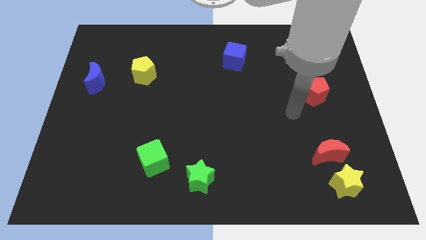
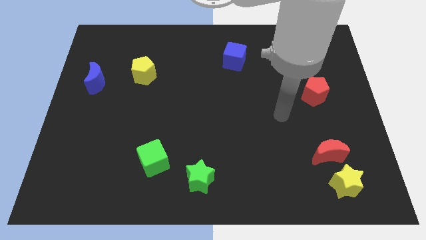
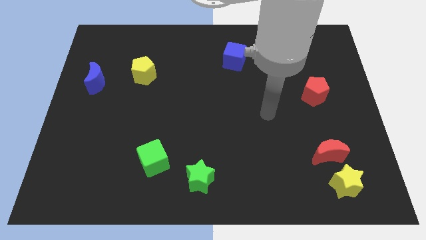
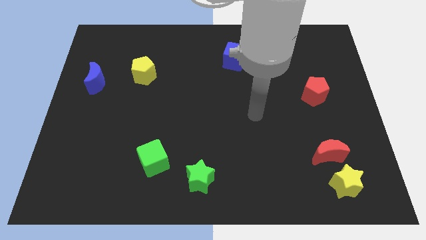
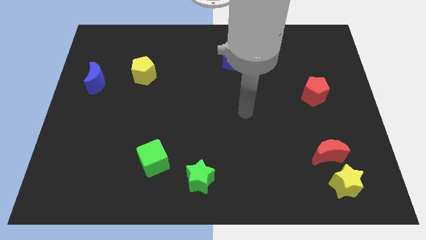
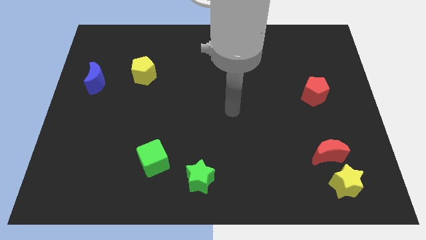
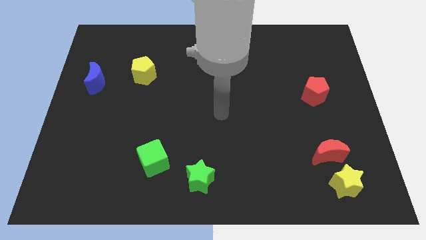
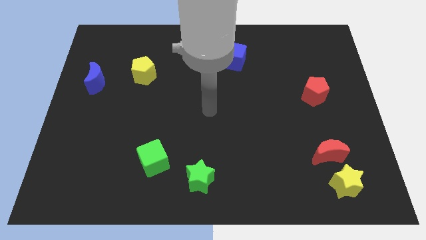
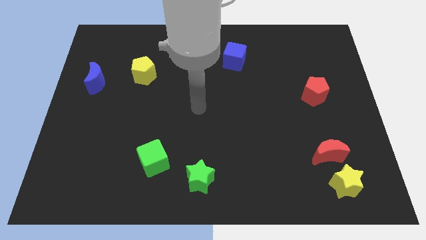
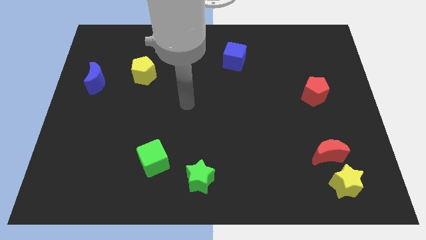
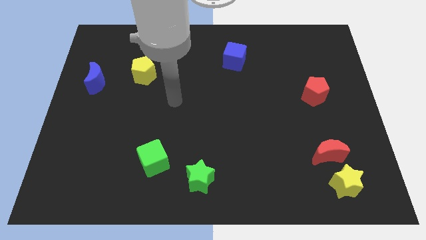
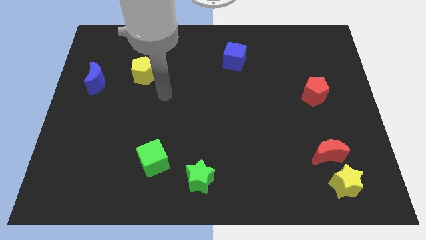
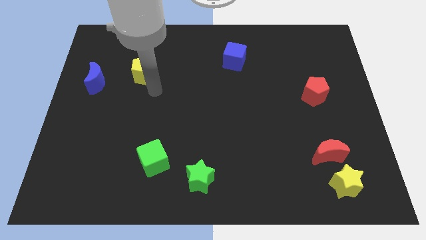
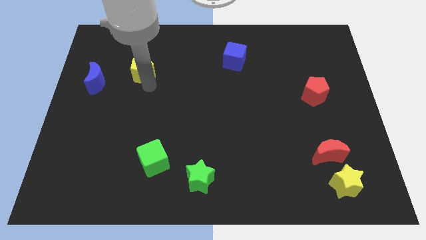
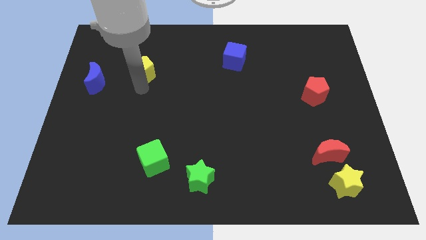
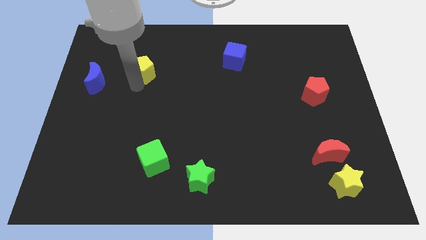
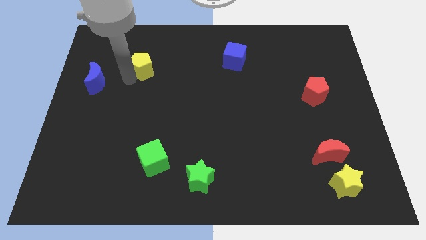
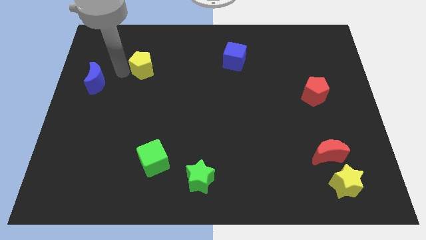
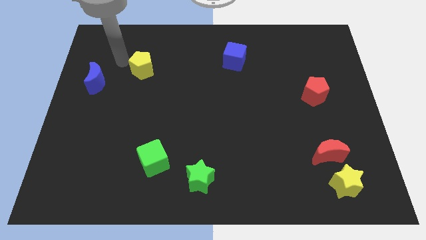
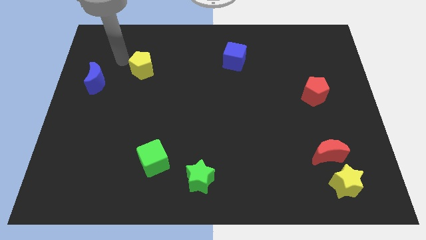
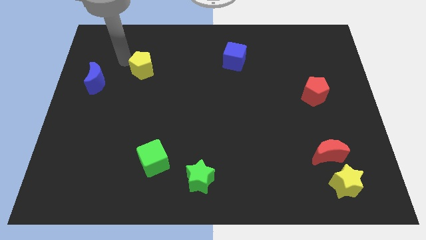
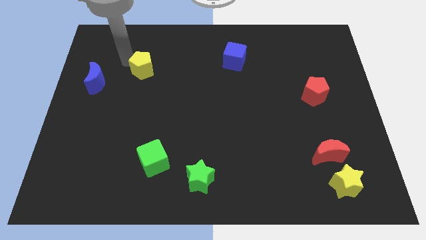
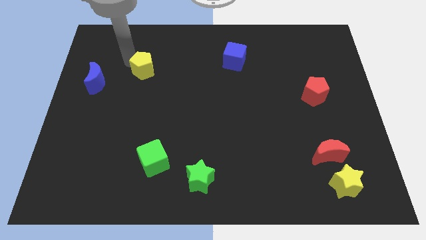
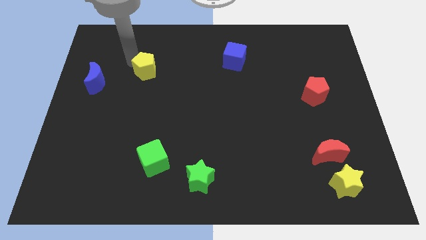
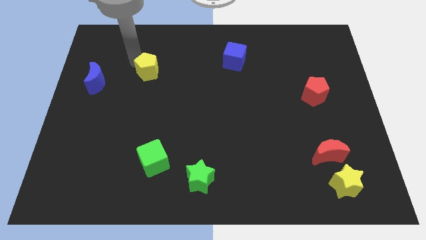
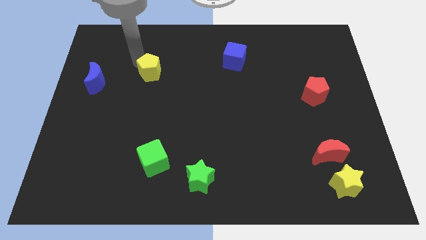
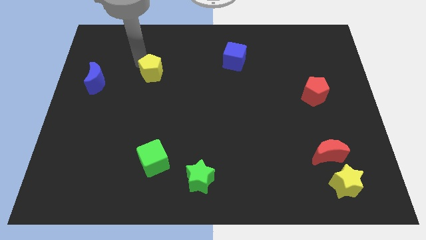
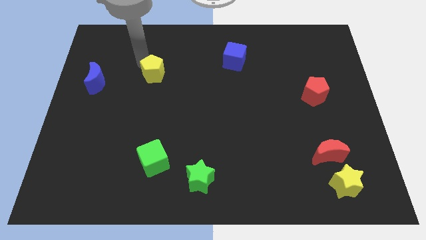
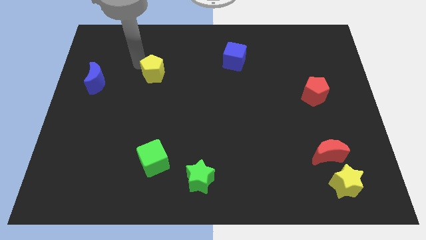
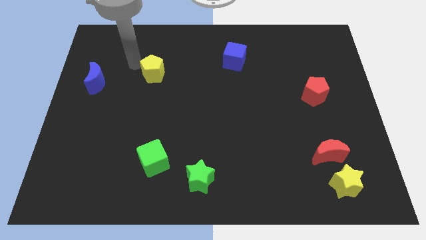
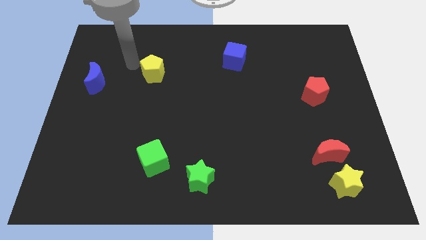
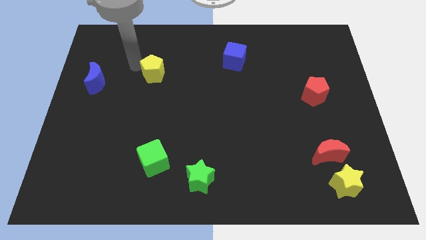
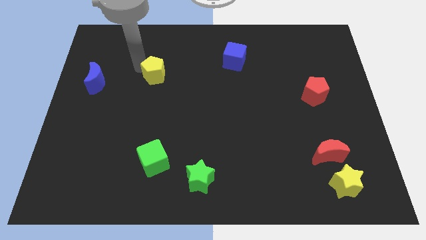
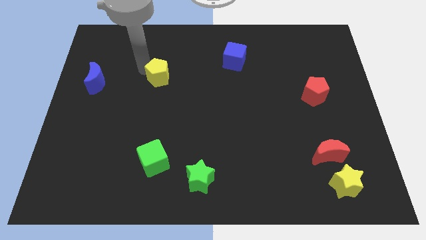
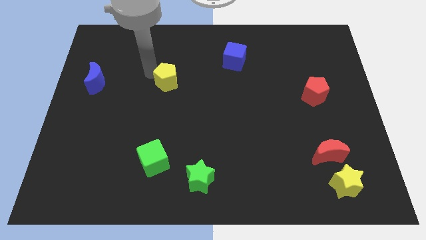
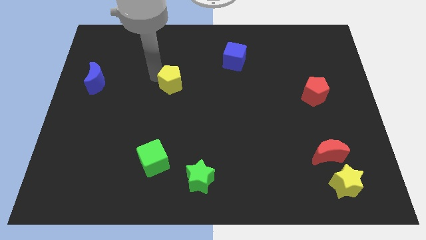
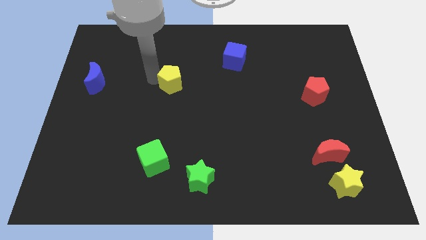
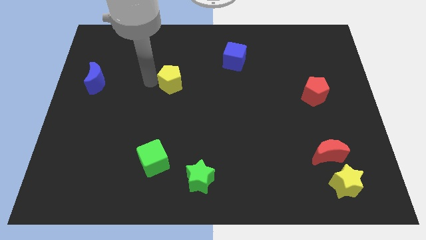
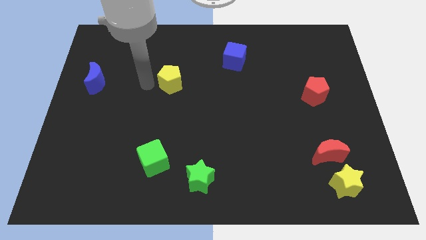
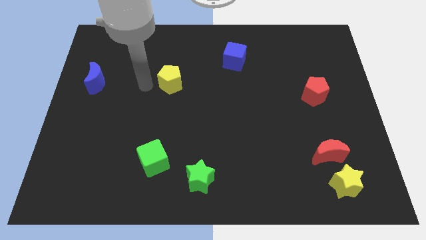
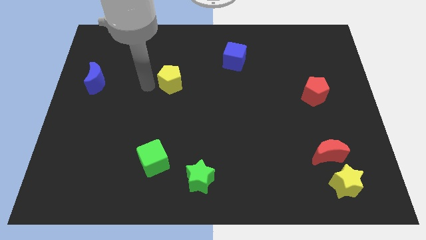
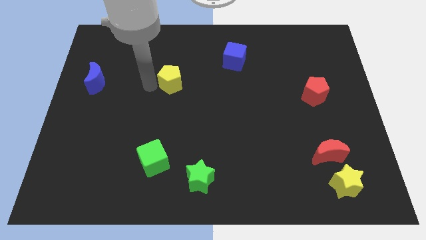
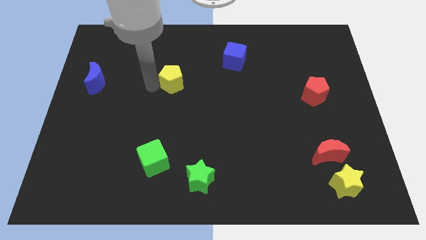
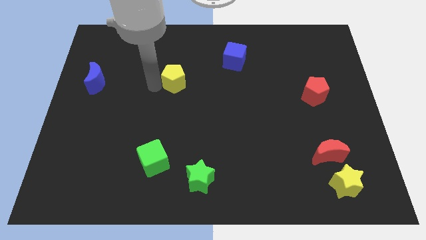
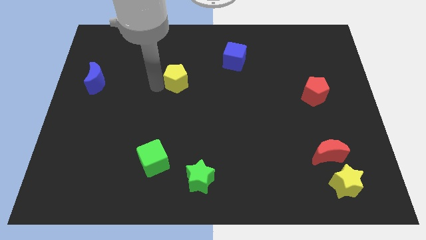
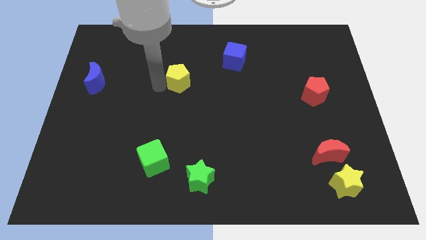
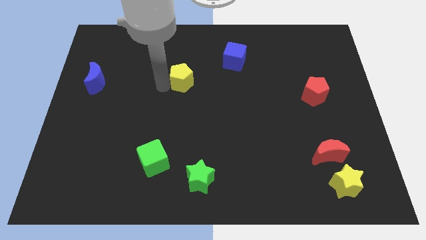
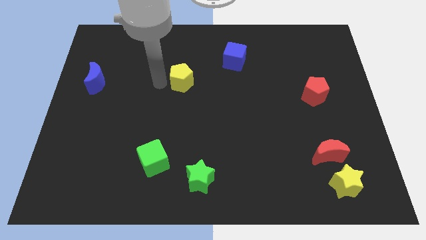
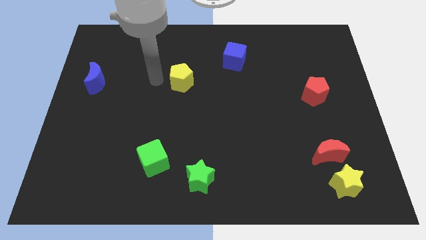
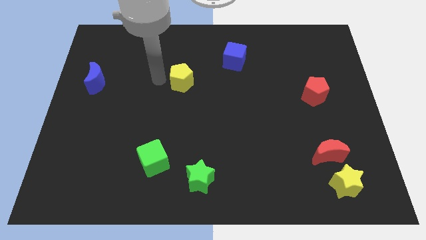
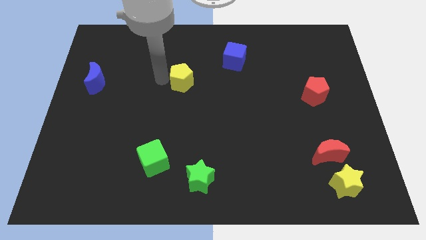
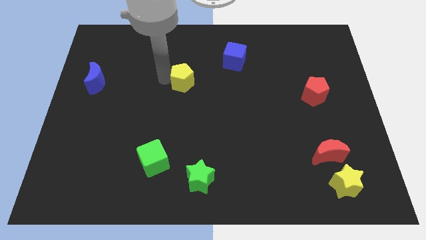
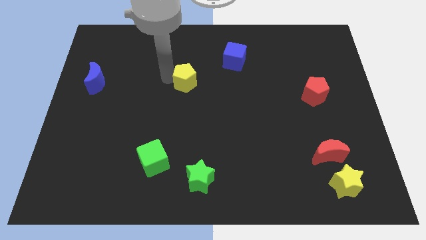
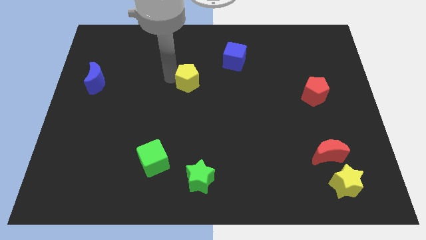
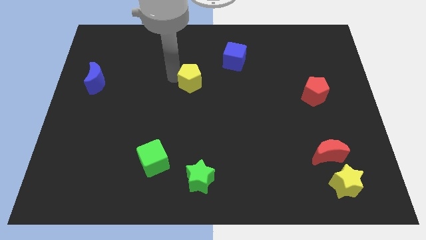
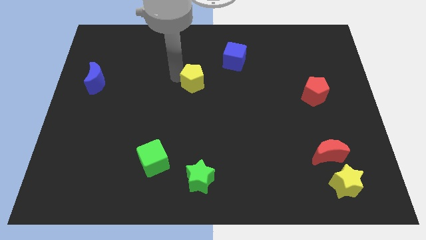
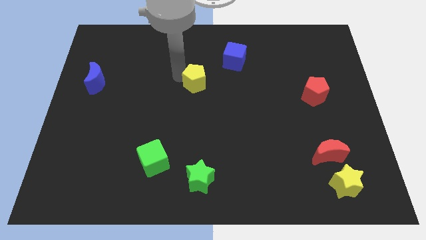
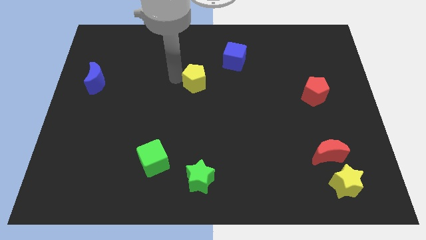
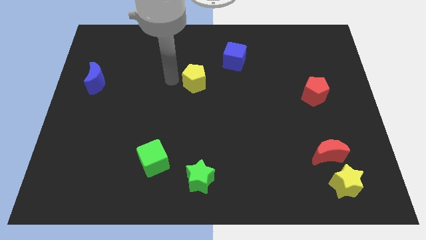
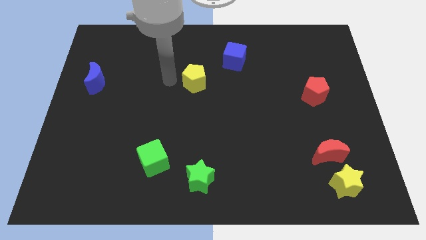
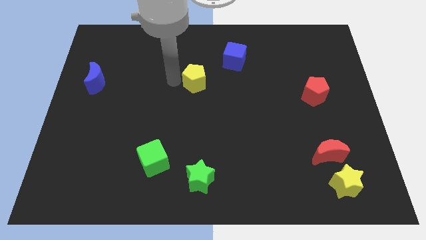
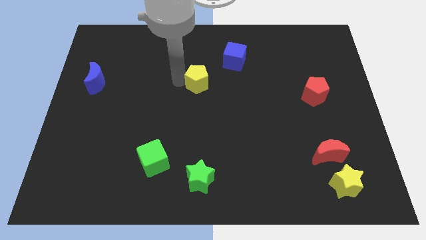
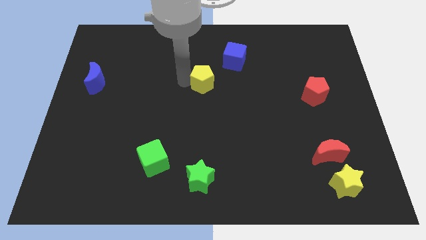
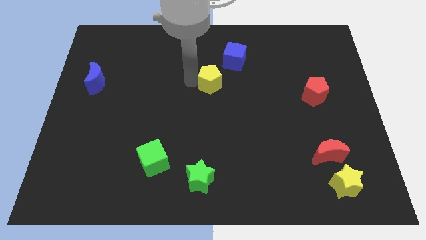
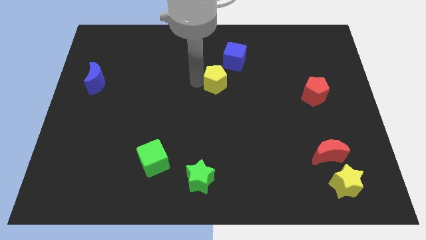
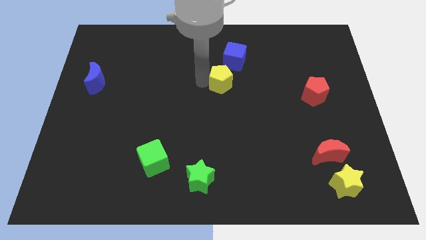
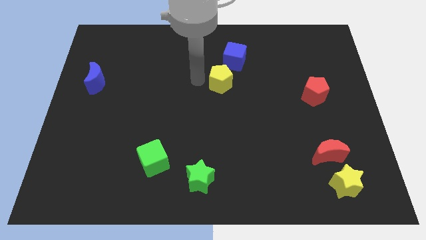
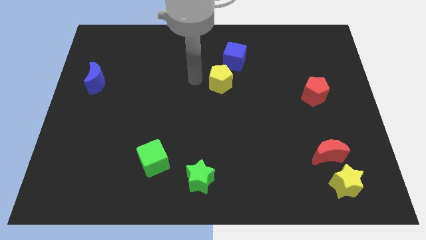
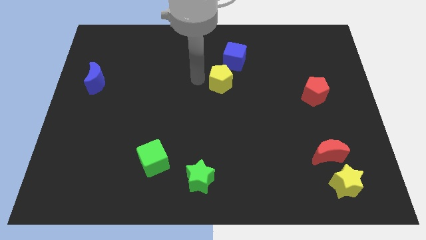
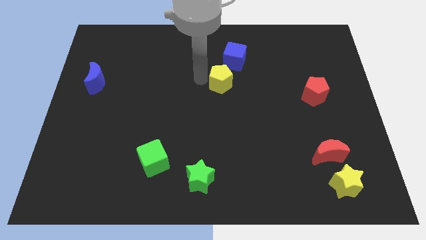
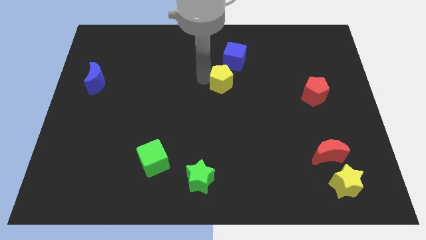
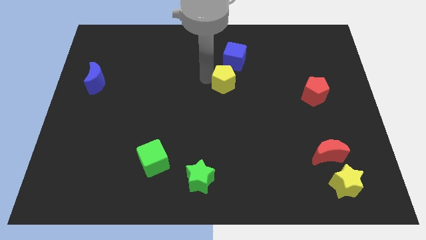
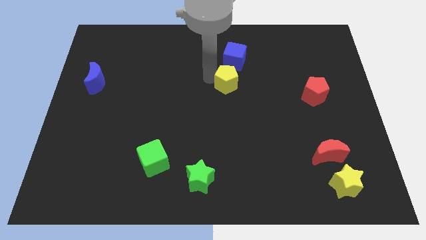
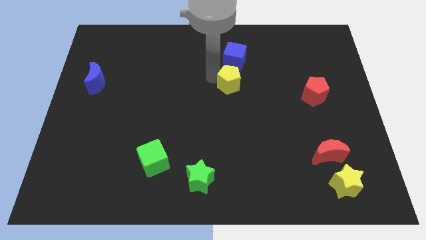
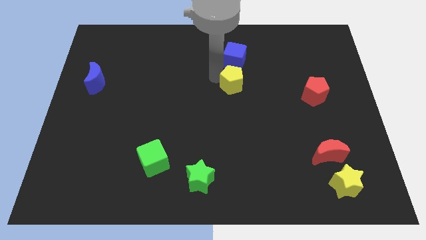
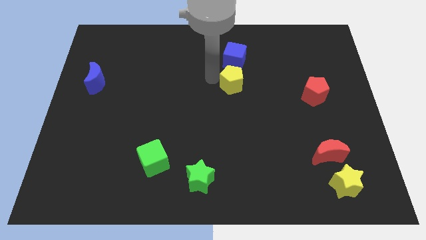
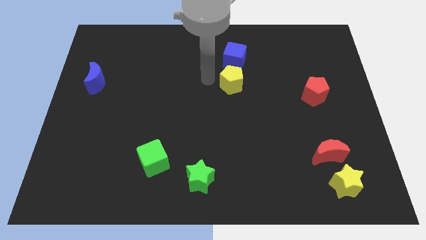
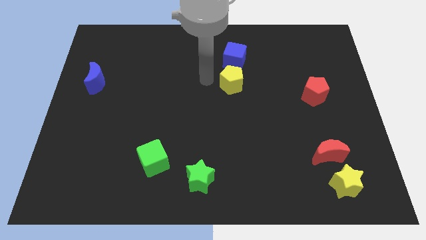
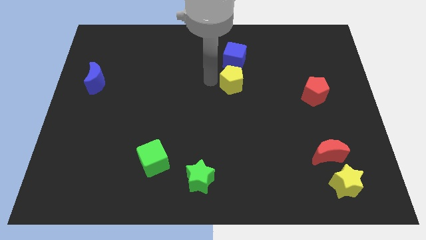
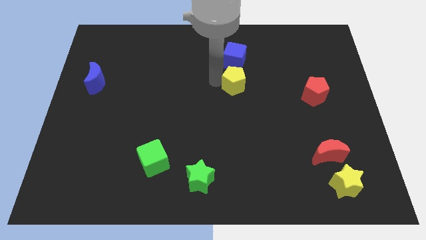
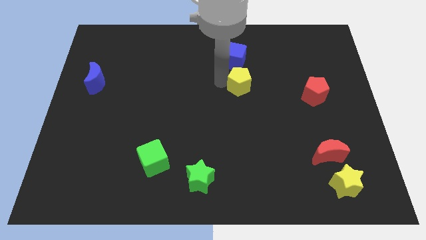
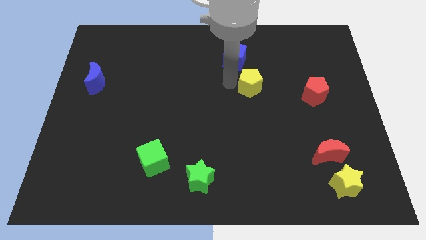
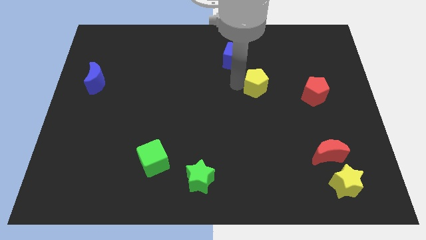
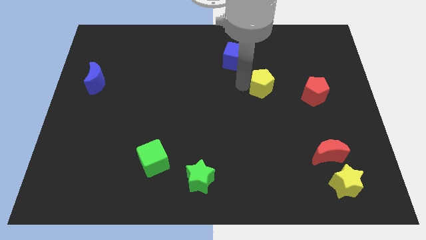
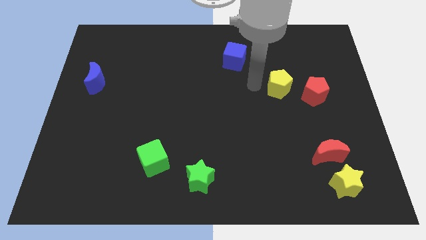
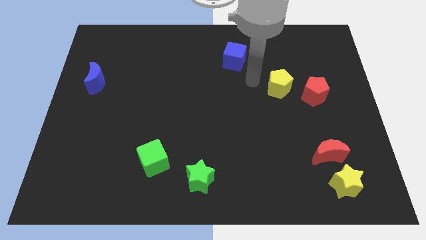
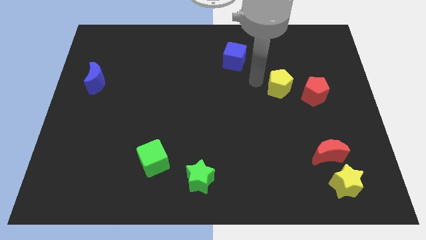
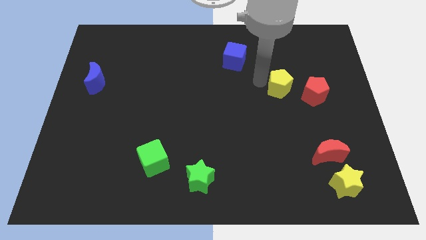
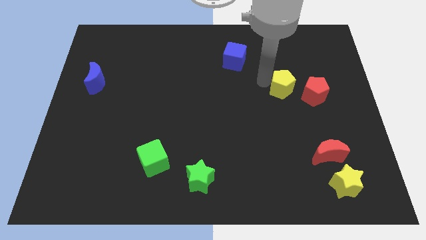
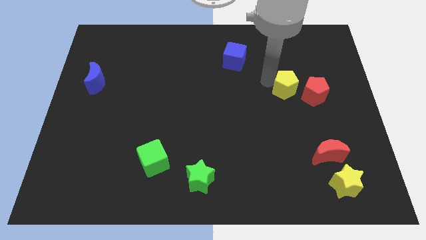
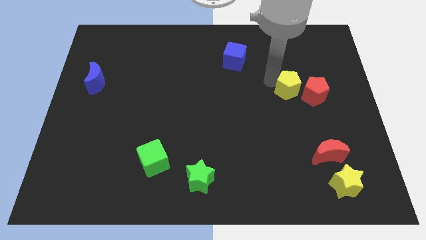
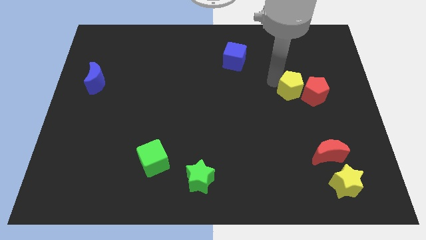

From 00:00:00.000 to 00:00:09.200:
push the yellow pentagon towards the red pentagon
